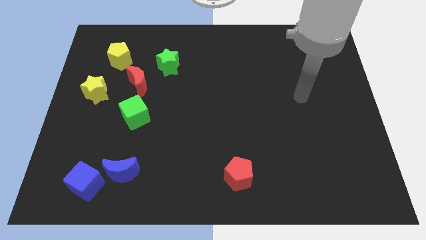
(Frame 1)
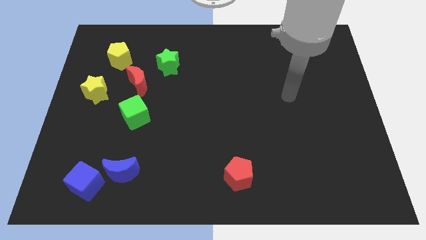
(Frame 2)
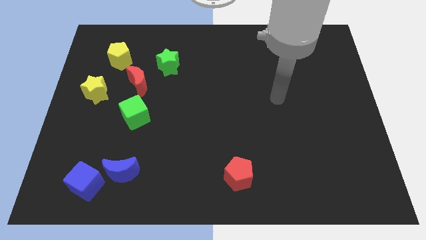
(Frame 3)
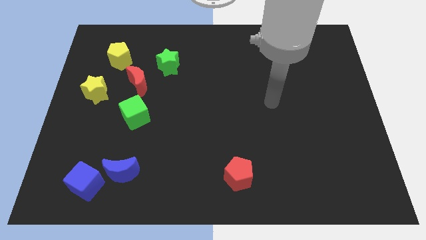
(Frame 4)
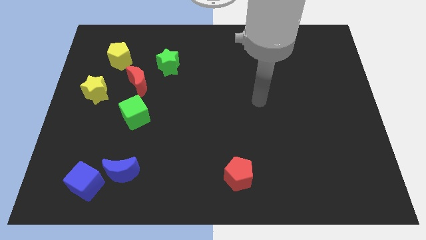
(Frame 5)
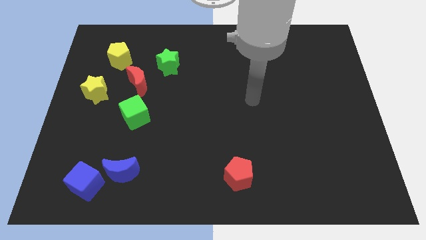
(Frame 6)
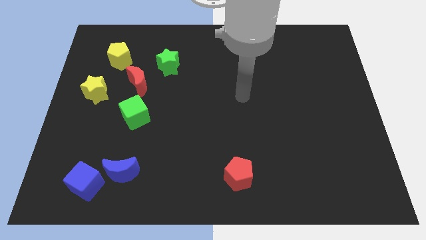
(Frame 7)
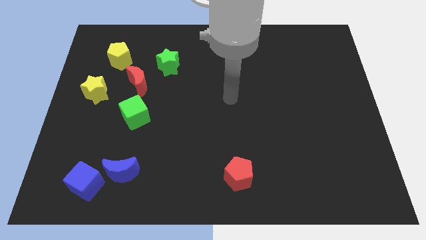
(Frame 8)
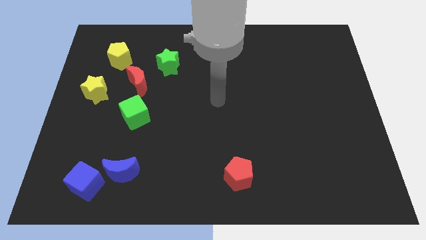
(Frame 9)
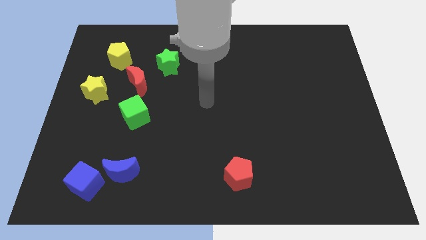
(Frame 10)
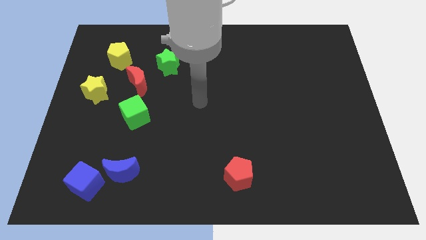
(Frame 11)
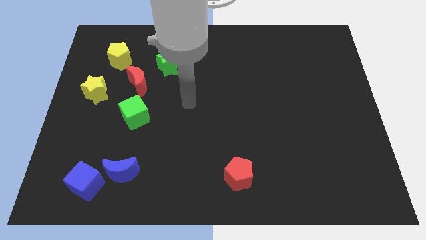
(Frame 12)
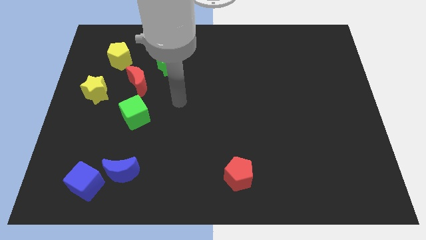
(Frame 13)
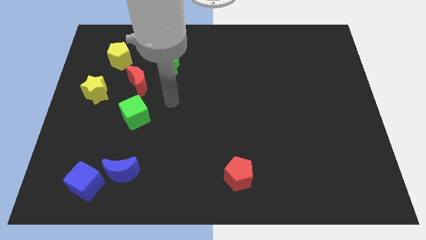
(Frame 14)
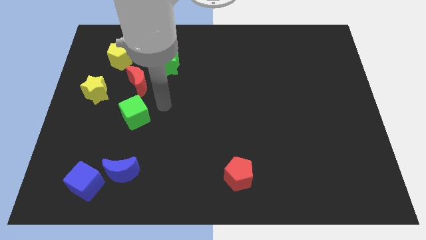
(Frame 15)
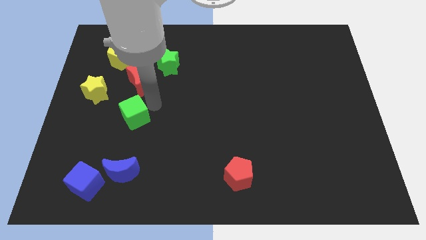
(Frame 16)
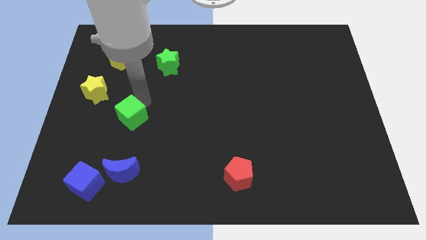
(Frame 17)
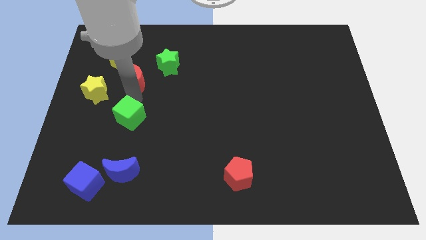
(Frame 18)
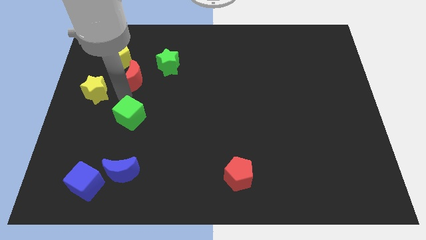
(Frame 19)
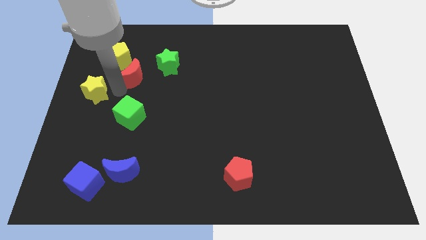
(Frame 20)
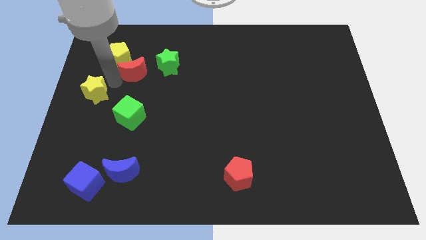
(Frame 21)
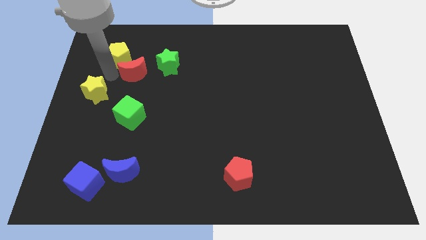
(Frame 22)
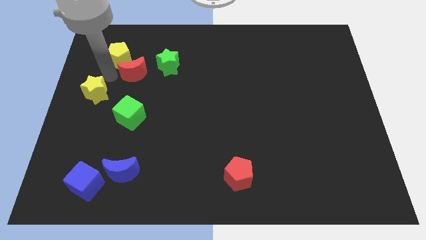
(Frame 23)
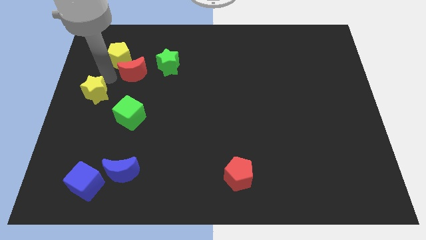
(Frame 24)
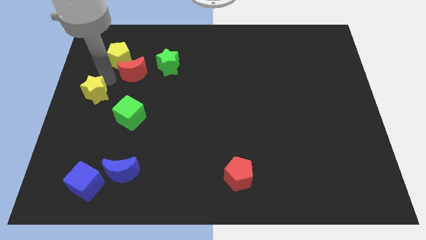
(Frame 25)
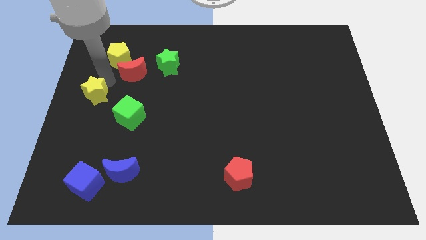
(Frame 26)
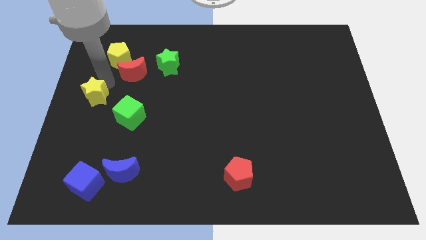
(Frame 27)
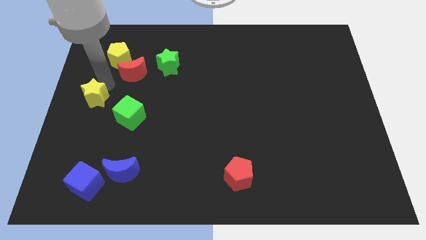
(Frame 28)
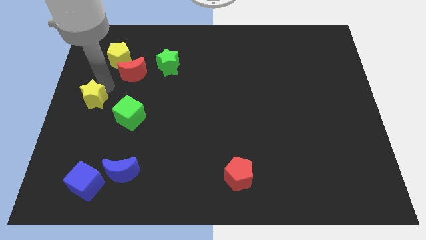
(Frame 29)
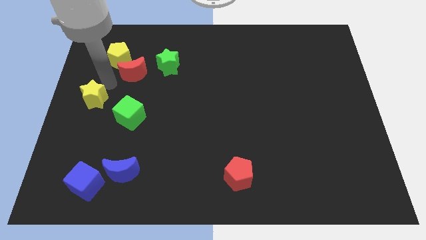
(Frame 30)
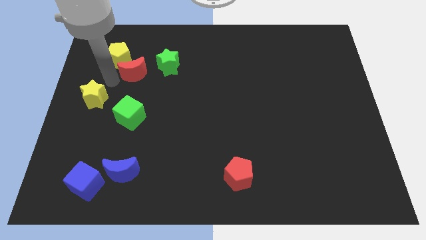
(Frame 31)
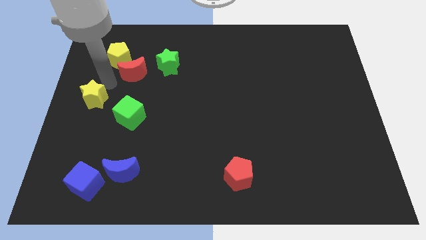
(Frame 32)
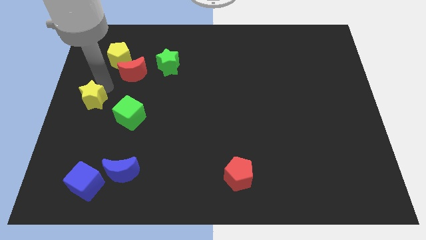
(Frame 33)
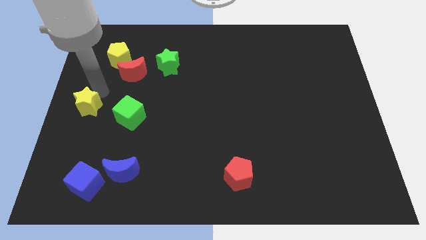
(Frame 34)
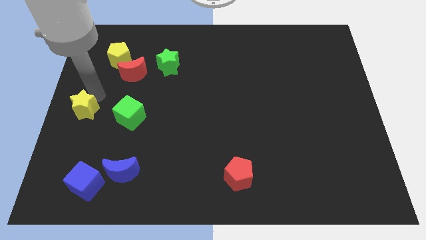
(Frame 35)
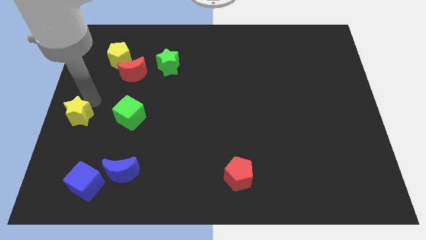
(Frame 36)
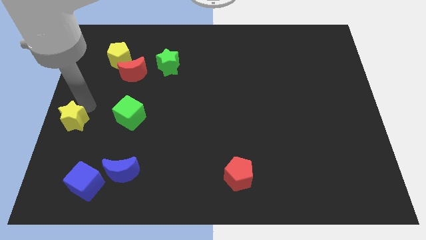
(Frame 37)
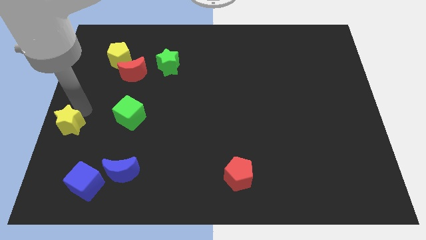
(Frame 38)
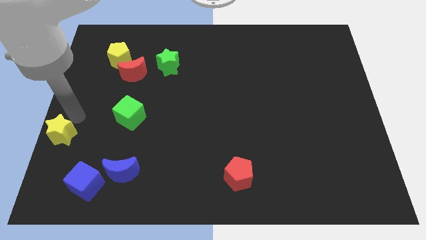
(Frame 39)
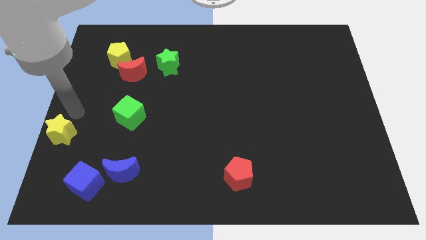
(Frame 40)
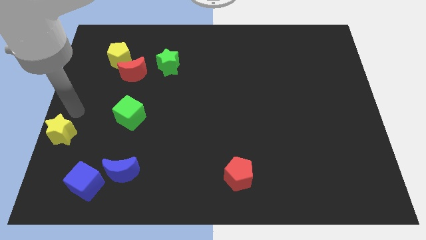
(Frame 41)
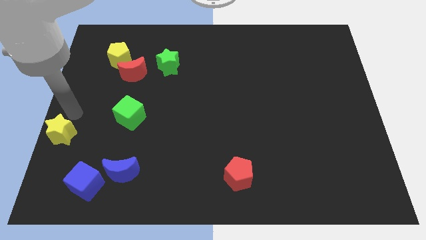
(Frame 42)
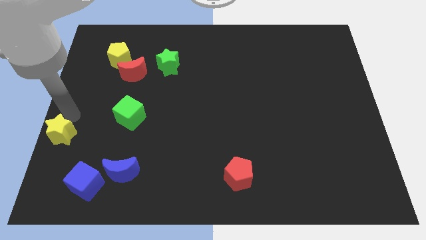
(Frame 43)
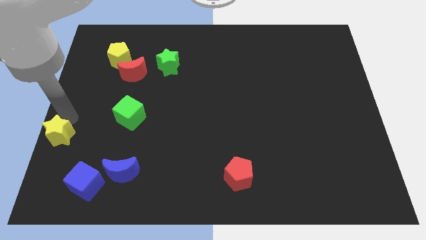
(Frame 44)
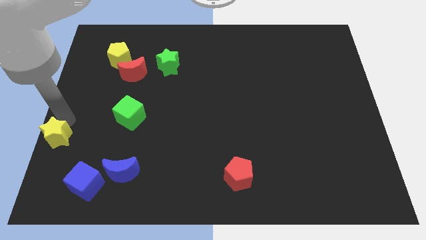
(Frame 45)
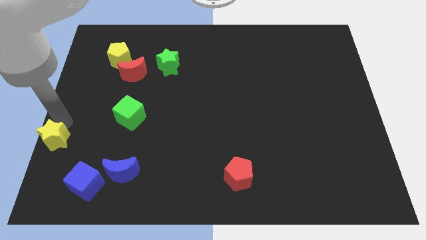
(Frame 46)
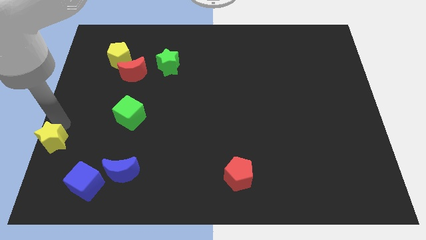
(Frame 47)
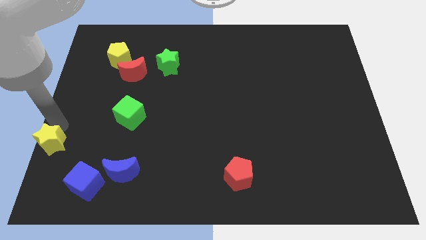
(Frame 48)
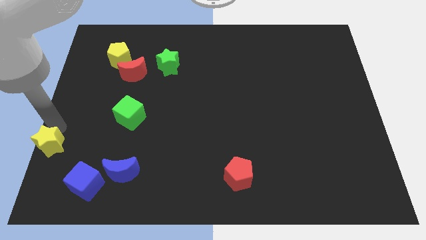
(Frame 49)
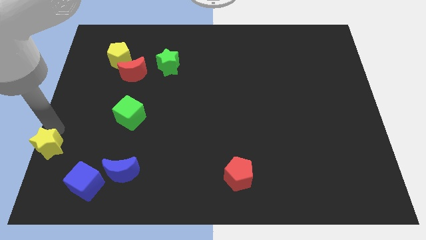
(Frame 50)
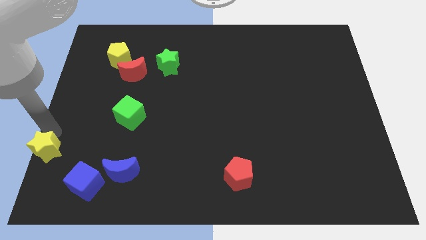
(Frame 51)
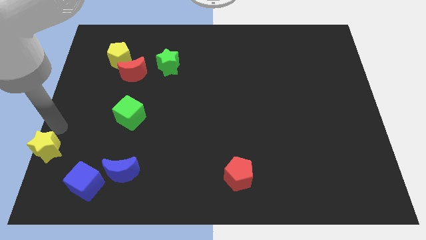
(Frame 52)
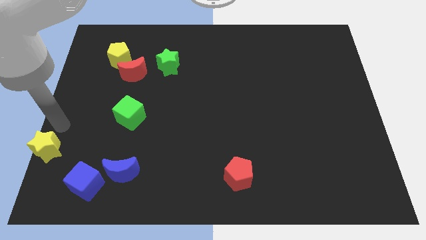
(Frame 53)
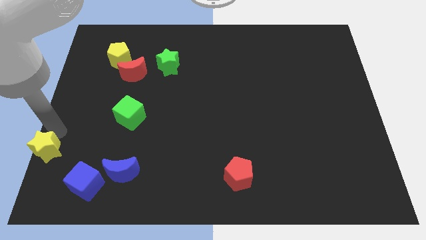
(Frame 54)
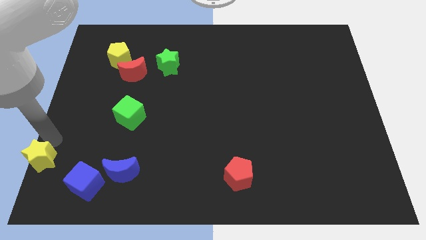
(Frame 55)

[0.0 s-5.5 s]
slide the yellow star to the bottom left corner

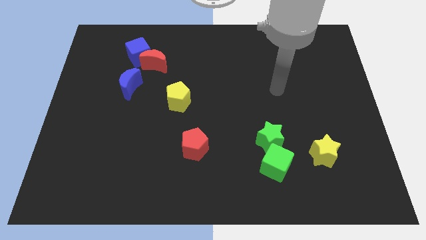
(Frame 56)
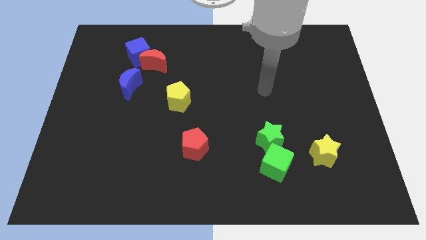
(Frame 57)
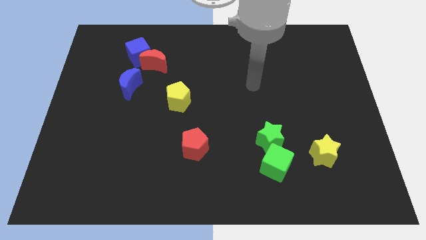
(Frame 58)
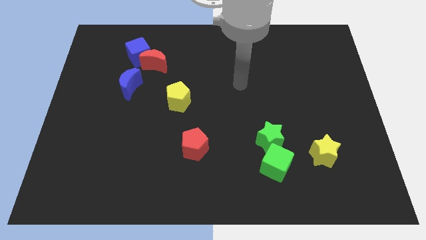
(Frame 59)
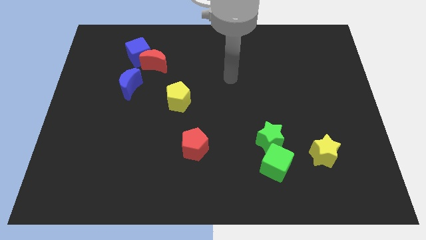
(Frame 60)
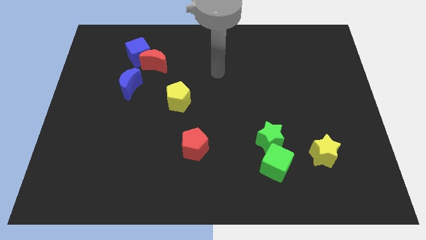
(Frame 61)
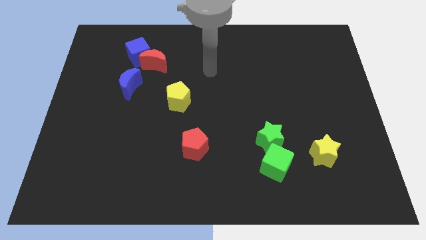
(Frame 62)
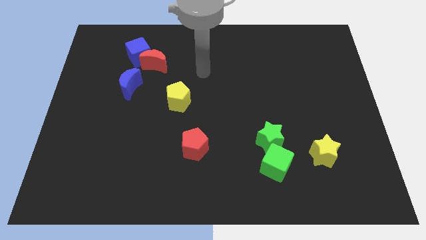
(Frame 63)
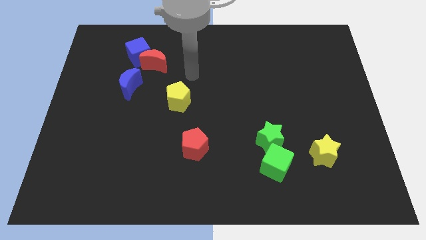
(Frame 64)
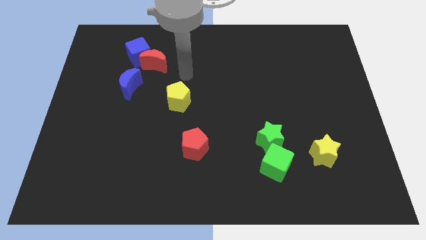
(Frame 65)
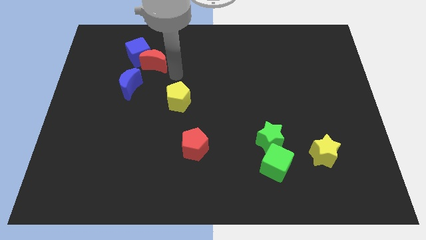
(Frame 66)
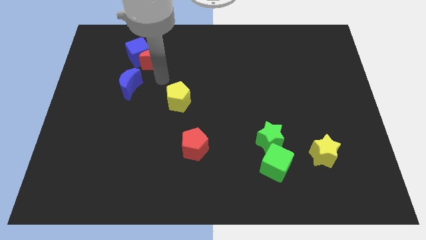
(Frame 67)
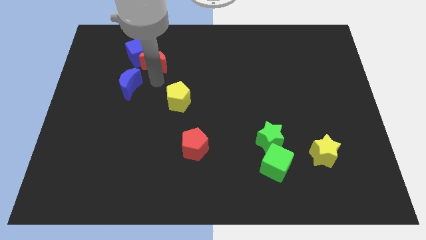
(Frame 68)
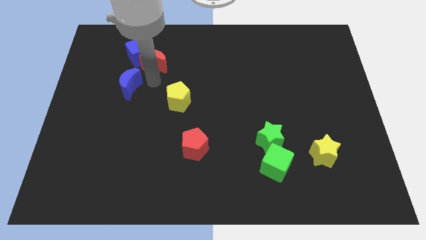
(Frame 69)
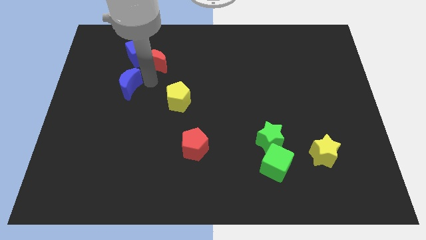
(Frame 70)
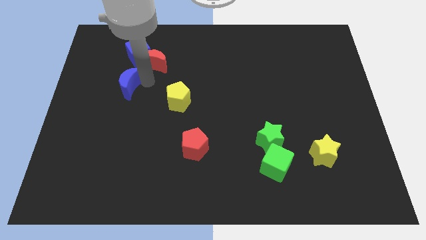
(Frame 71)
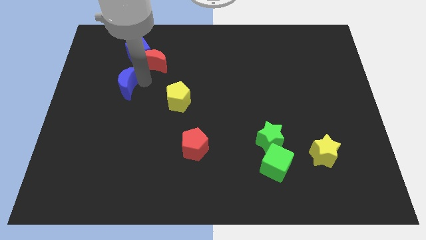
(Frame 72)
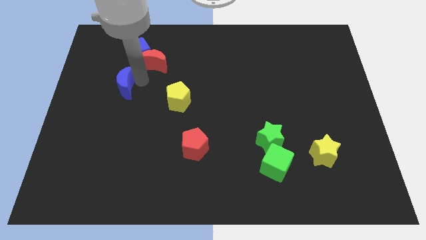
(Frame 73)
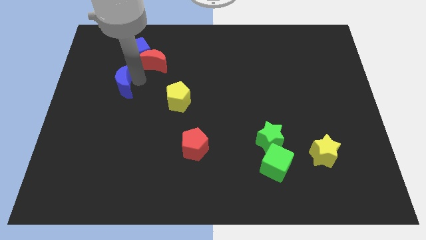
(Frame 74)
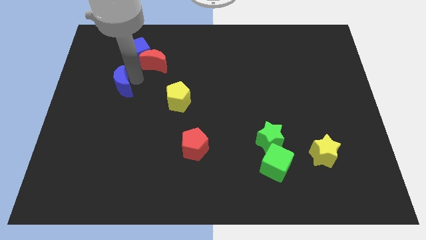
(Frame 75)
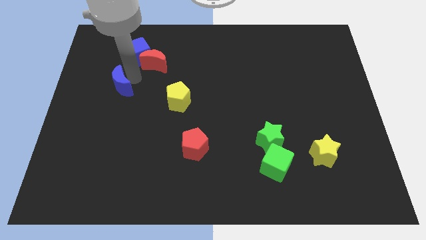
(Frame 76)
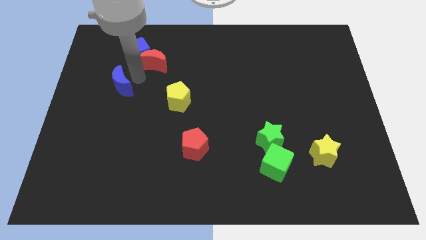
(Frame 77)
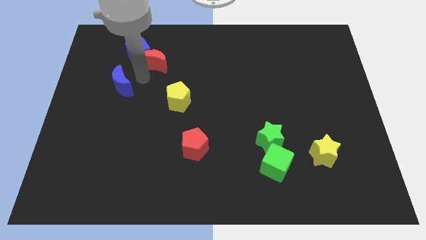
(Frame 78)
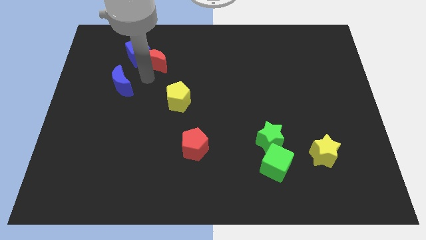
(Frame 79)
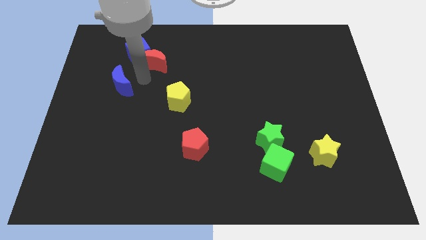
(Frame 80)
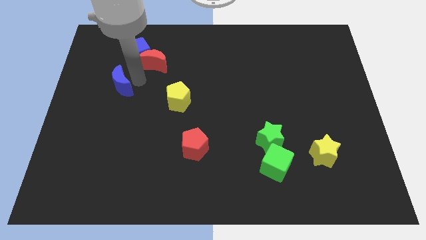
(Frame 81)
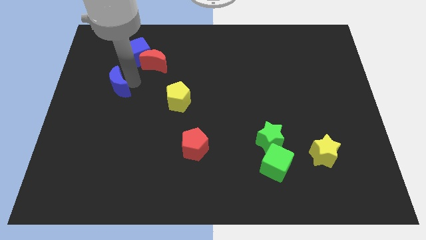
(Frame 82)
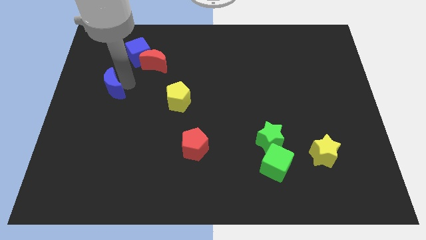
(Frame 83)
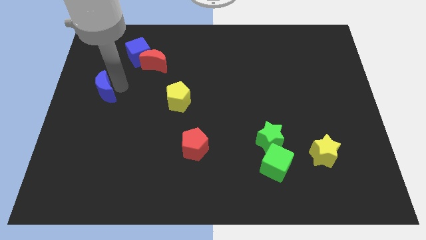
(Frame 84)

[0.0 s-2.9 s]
slide the blue moon to the left side
